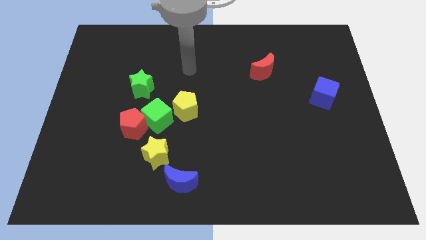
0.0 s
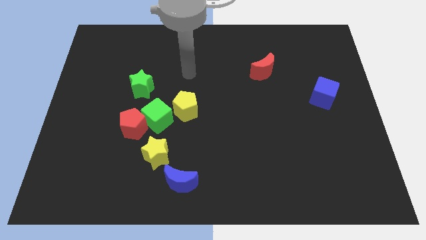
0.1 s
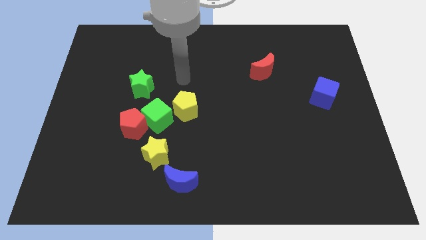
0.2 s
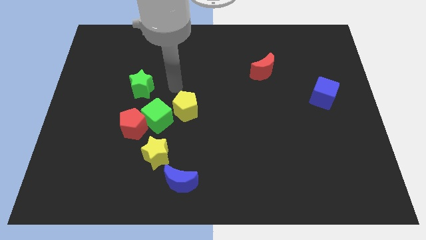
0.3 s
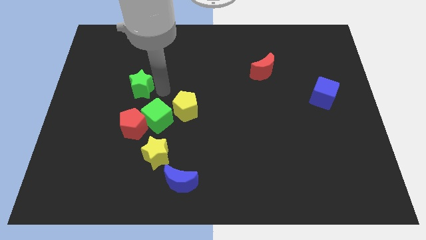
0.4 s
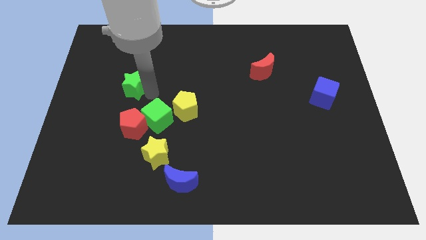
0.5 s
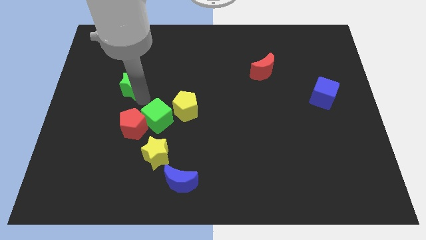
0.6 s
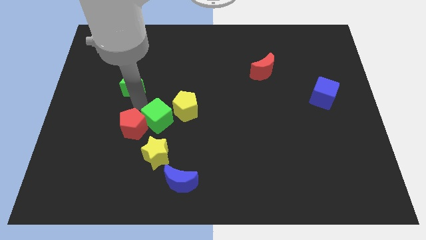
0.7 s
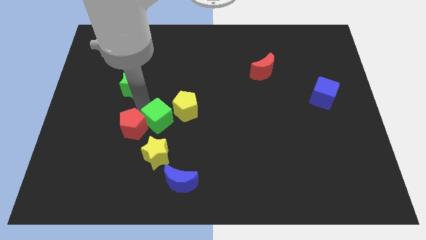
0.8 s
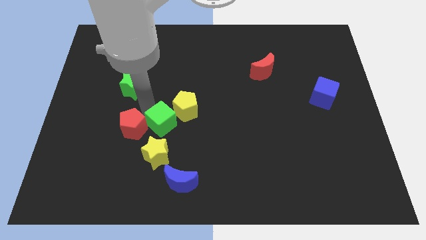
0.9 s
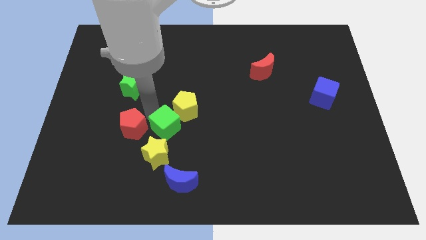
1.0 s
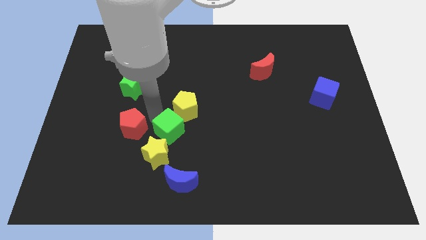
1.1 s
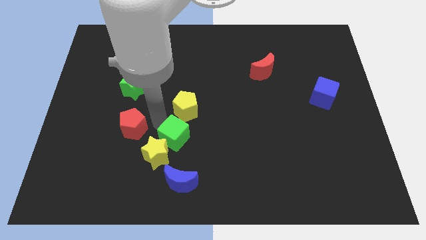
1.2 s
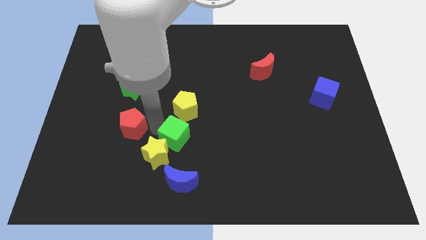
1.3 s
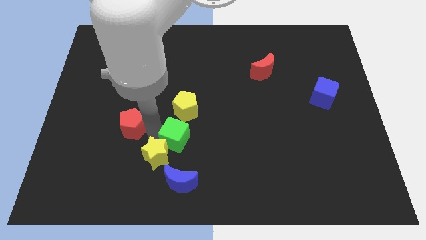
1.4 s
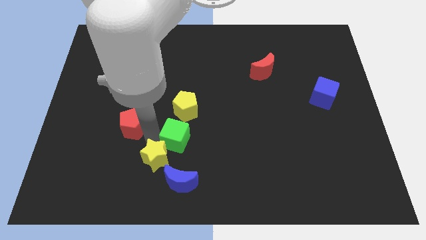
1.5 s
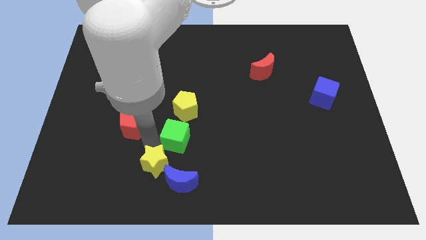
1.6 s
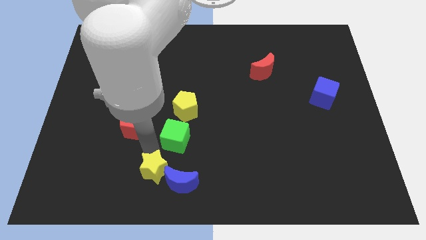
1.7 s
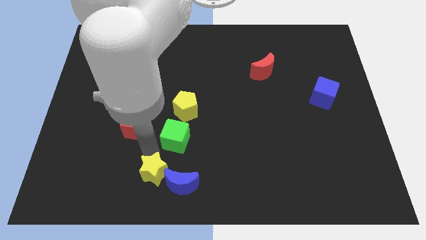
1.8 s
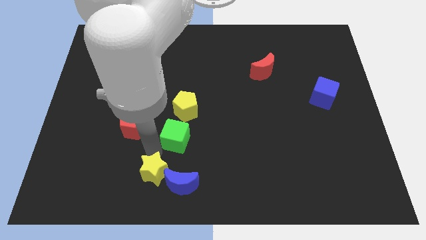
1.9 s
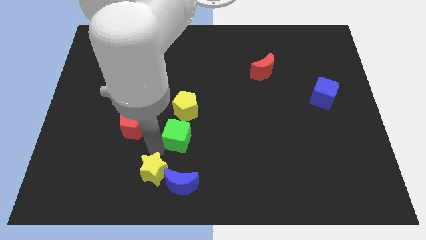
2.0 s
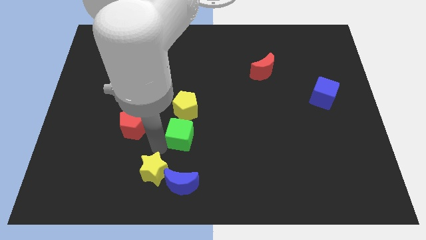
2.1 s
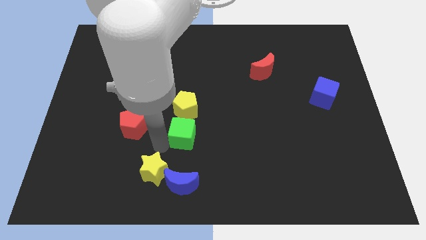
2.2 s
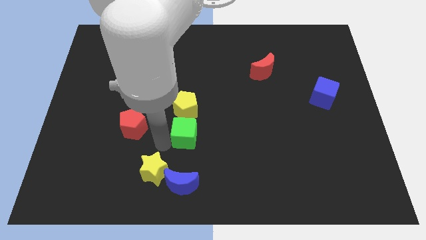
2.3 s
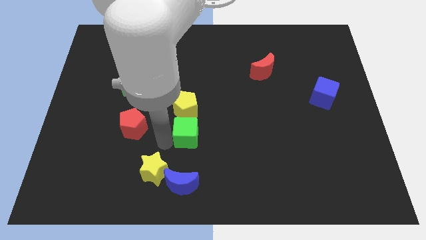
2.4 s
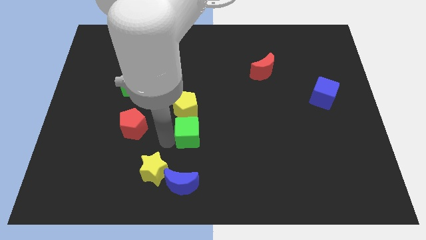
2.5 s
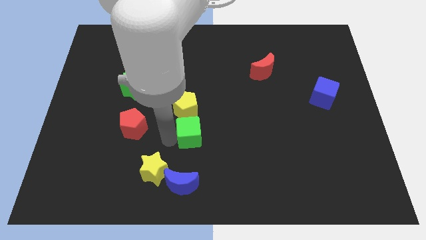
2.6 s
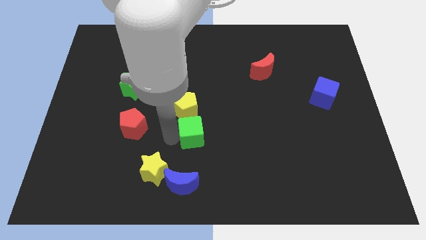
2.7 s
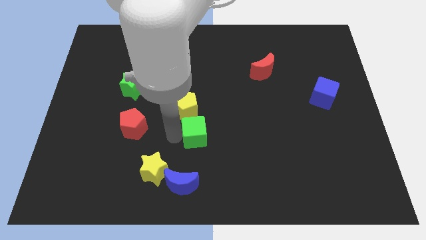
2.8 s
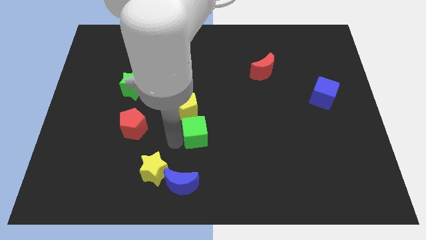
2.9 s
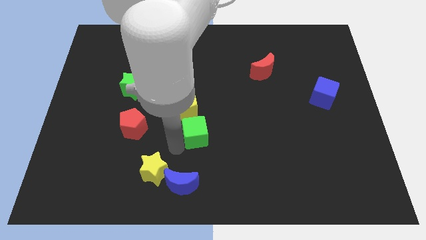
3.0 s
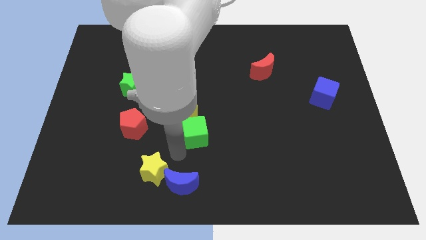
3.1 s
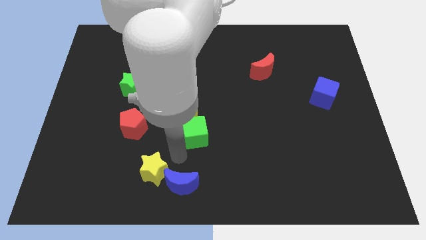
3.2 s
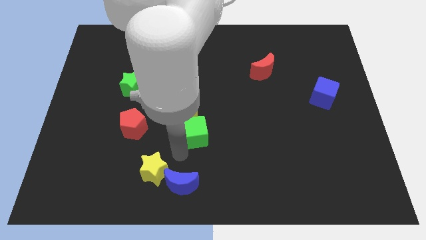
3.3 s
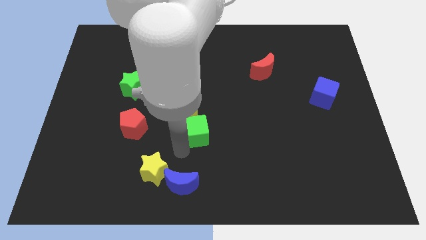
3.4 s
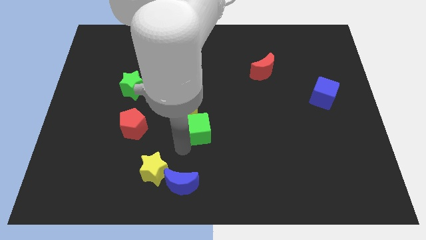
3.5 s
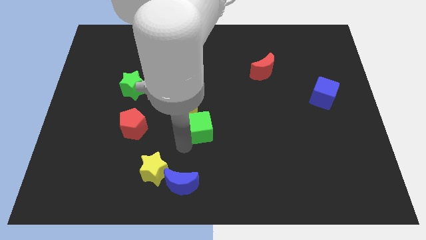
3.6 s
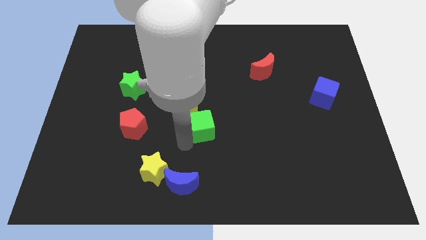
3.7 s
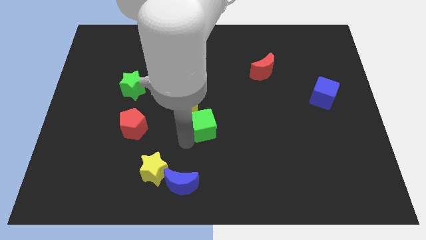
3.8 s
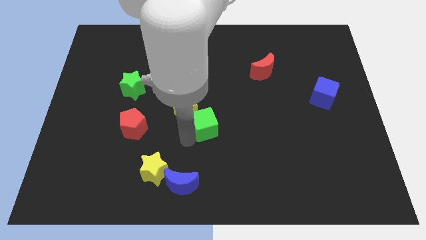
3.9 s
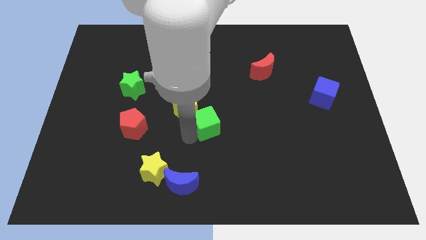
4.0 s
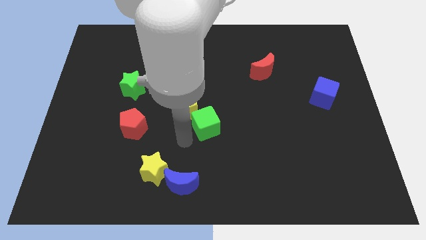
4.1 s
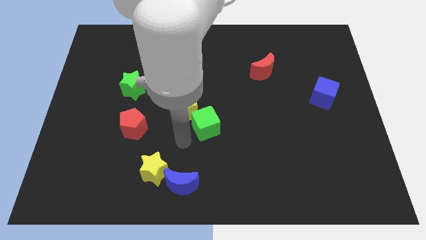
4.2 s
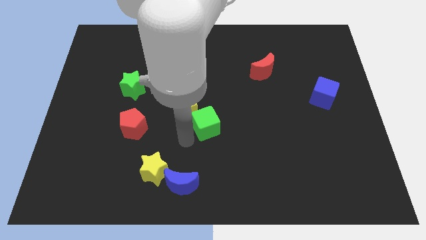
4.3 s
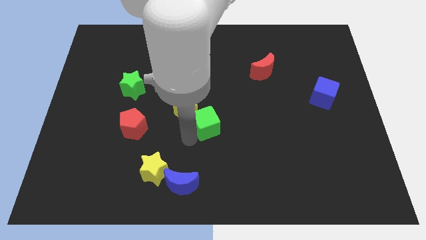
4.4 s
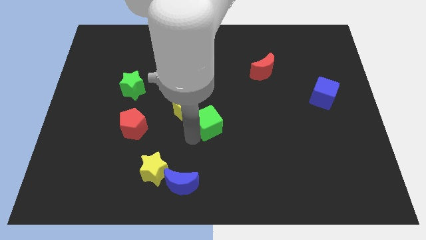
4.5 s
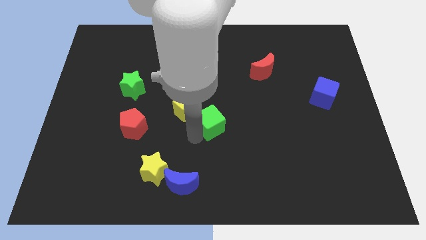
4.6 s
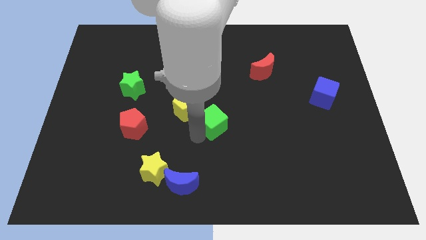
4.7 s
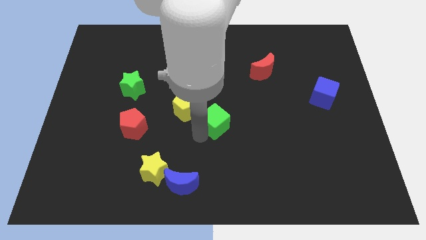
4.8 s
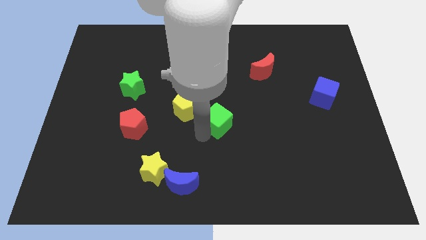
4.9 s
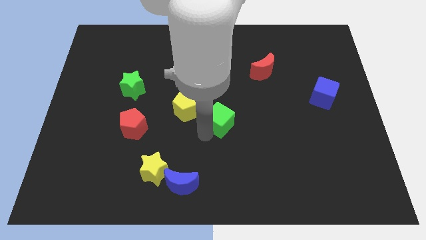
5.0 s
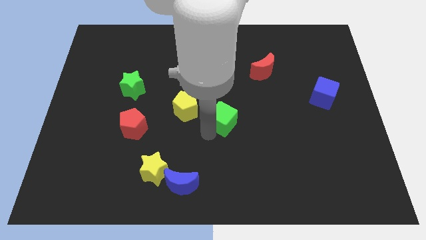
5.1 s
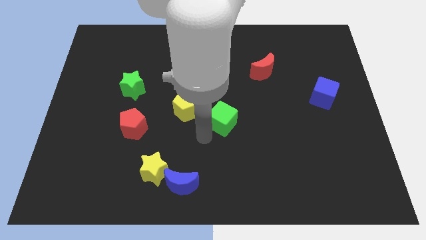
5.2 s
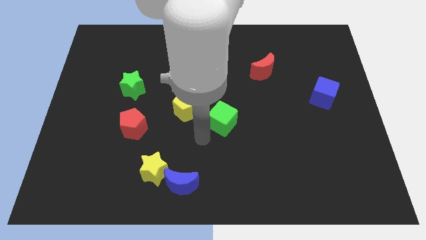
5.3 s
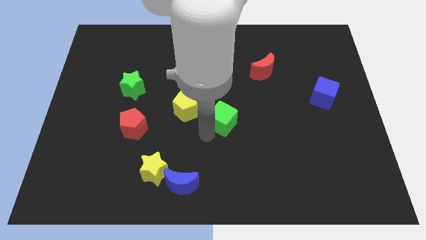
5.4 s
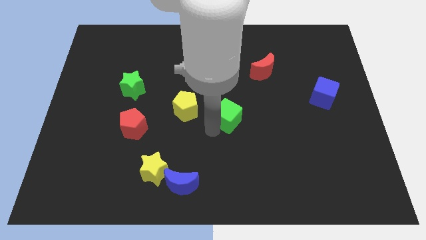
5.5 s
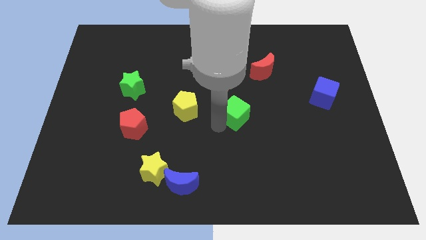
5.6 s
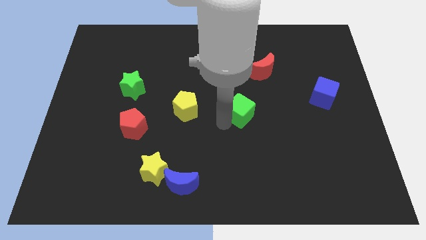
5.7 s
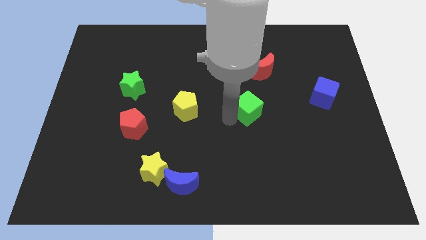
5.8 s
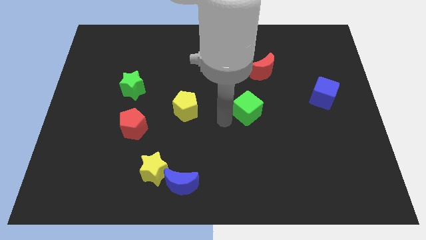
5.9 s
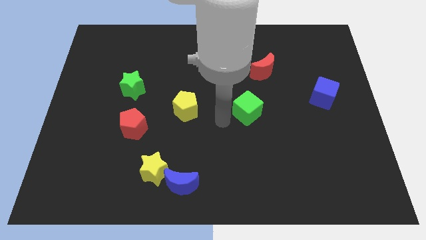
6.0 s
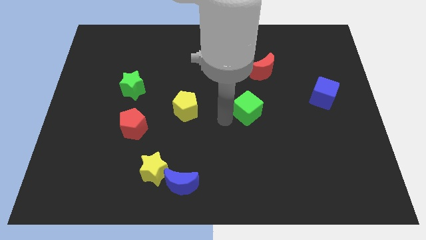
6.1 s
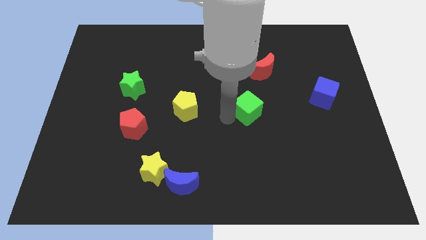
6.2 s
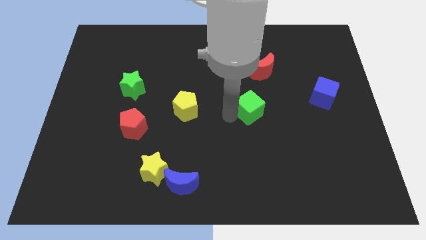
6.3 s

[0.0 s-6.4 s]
put the green cube below the red moon
